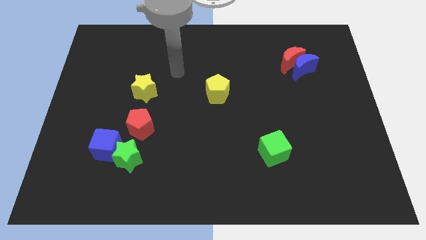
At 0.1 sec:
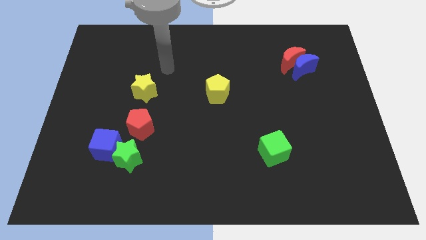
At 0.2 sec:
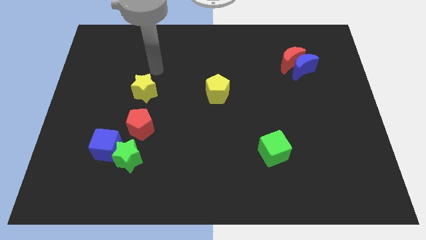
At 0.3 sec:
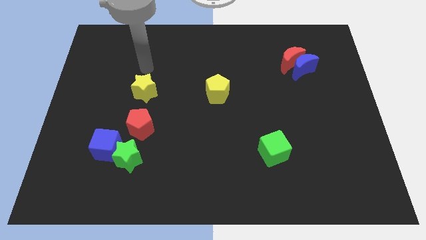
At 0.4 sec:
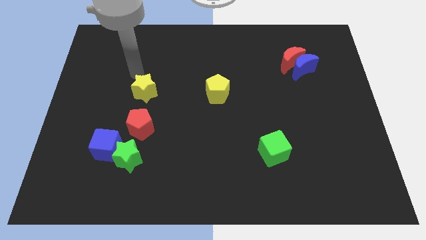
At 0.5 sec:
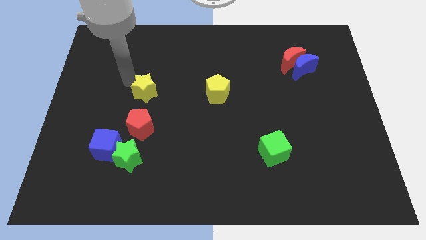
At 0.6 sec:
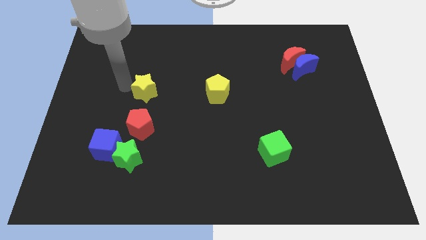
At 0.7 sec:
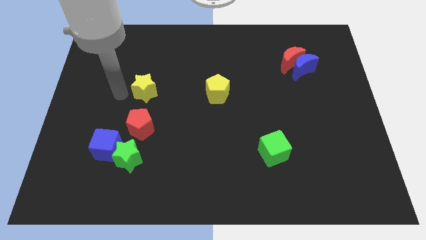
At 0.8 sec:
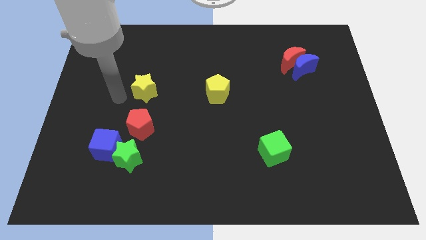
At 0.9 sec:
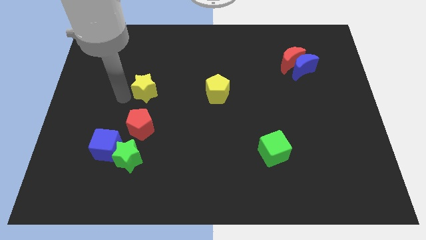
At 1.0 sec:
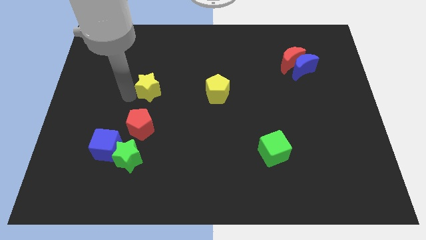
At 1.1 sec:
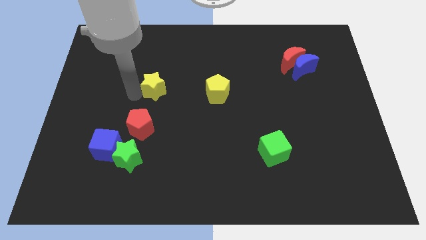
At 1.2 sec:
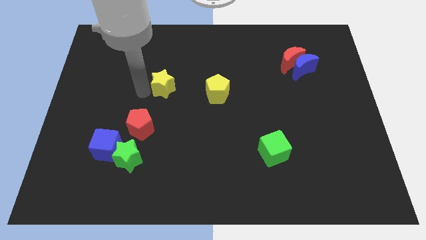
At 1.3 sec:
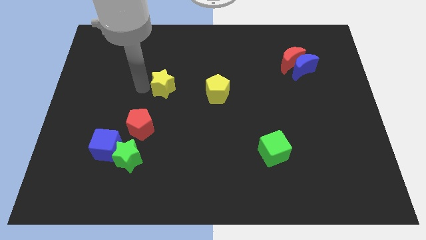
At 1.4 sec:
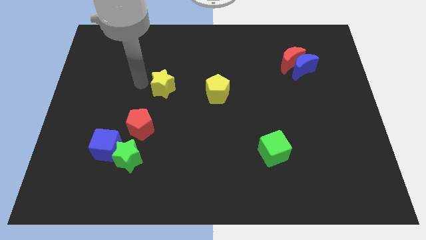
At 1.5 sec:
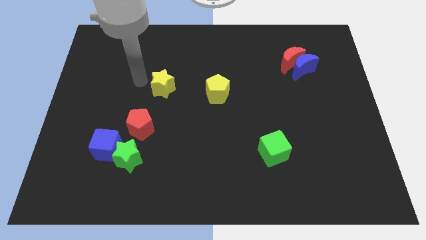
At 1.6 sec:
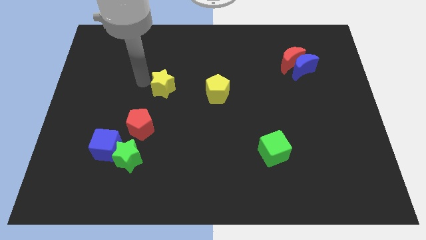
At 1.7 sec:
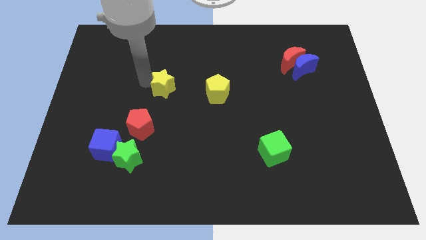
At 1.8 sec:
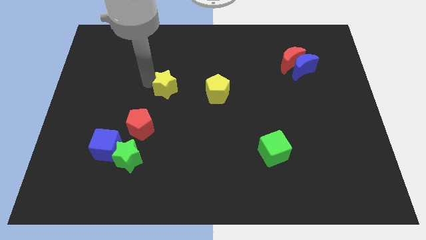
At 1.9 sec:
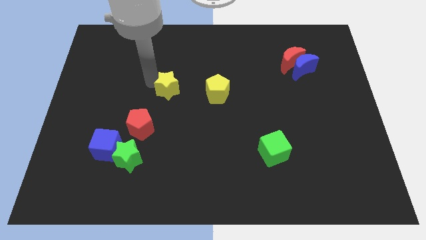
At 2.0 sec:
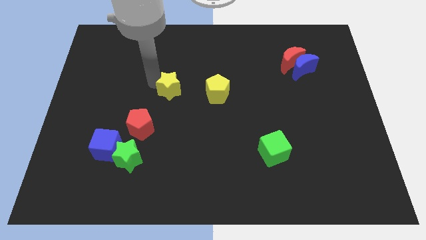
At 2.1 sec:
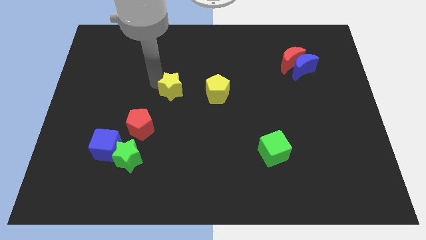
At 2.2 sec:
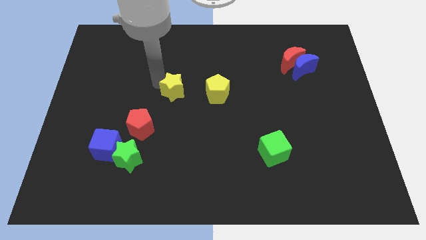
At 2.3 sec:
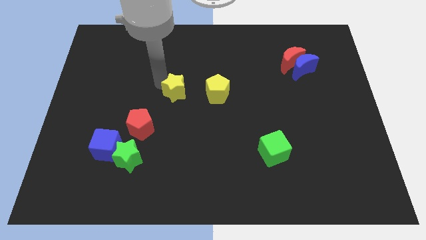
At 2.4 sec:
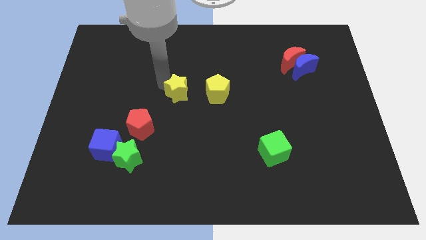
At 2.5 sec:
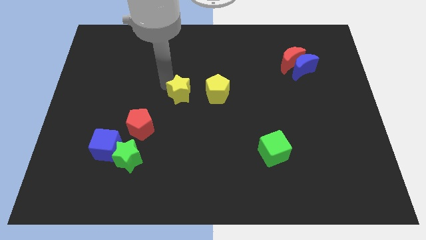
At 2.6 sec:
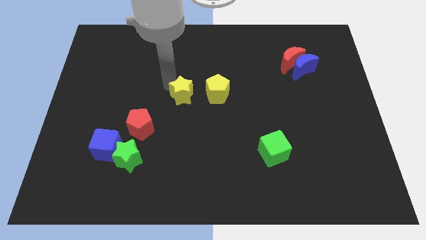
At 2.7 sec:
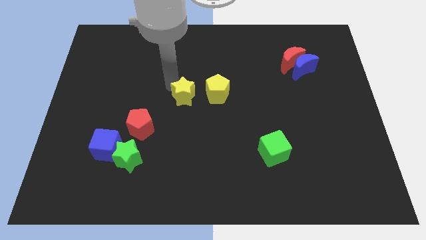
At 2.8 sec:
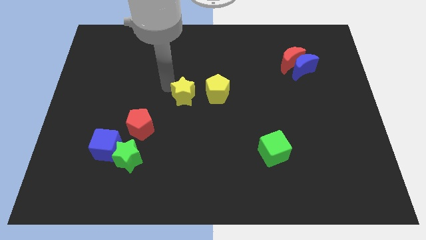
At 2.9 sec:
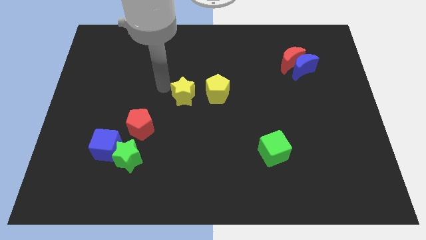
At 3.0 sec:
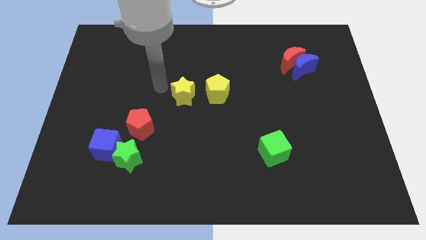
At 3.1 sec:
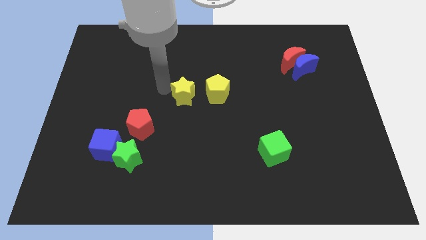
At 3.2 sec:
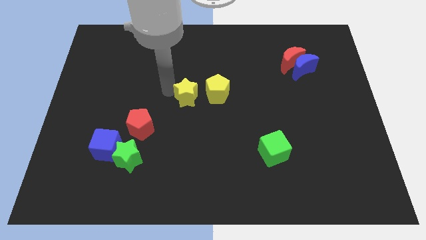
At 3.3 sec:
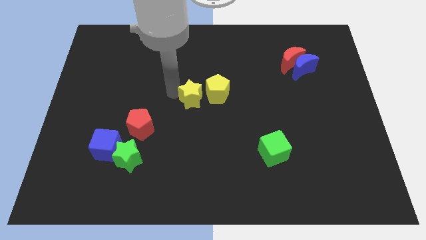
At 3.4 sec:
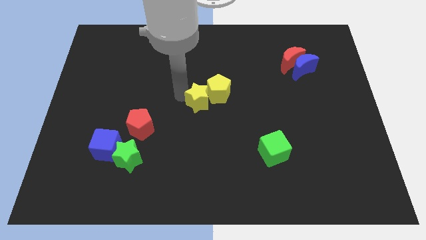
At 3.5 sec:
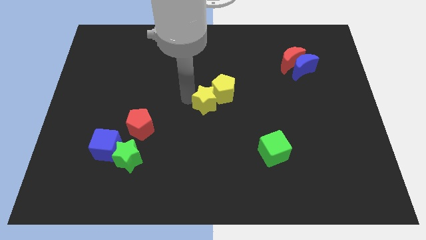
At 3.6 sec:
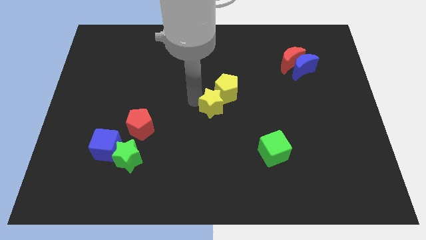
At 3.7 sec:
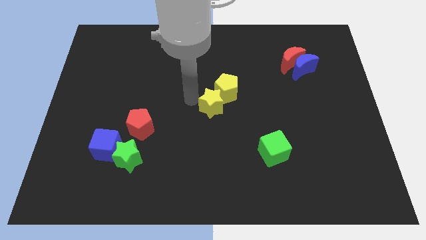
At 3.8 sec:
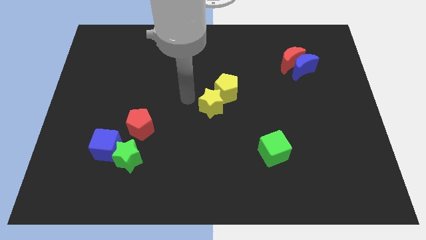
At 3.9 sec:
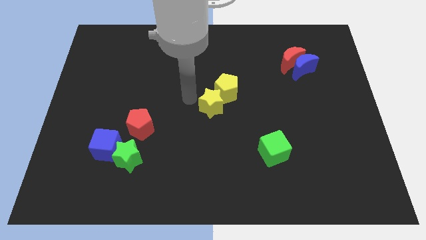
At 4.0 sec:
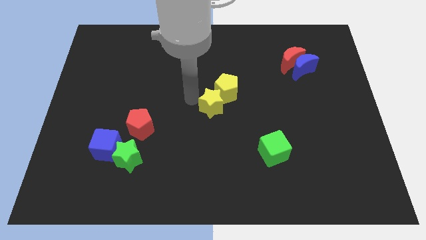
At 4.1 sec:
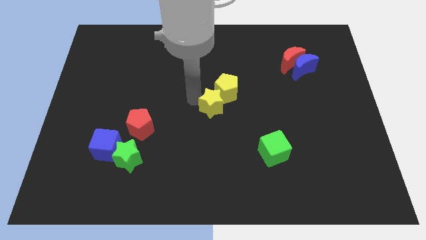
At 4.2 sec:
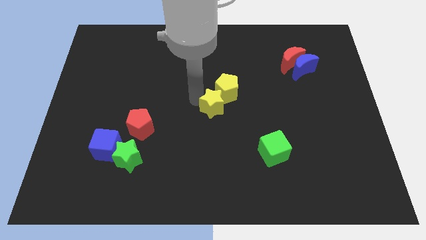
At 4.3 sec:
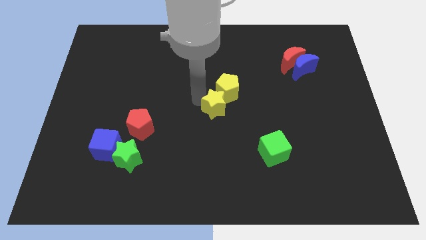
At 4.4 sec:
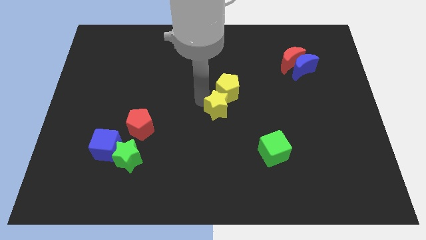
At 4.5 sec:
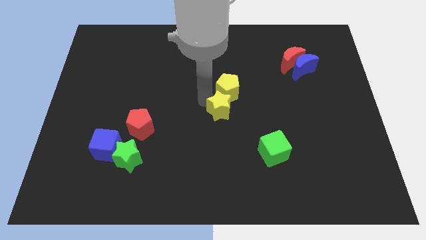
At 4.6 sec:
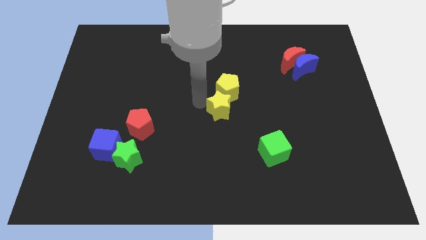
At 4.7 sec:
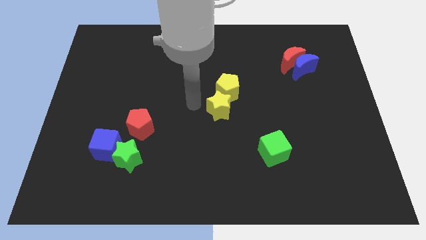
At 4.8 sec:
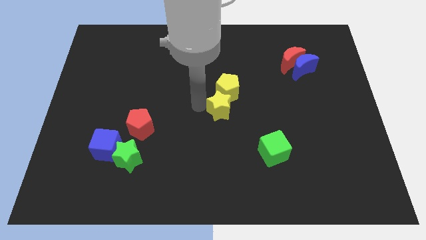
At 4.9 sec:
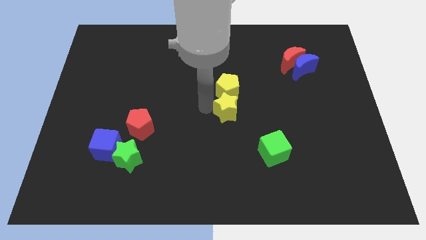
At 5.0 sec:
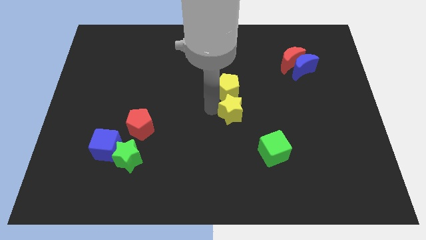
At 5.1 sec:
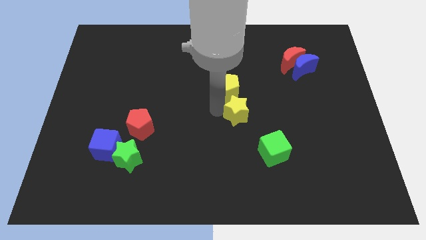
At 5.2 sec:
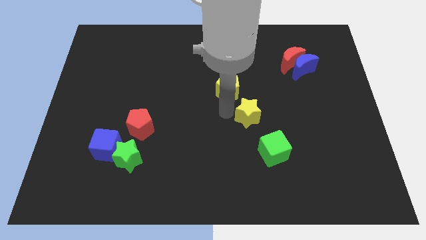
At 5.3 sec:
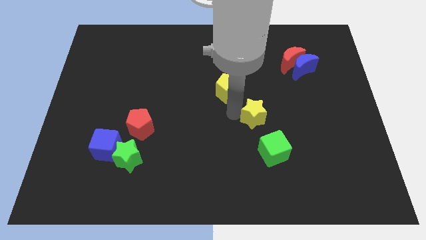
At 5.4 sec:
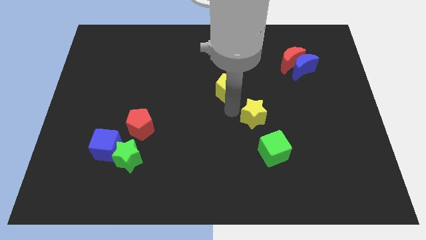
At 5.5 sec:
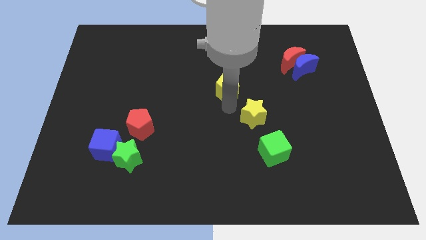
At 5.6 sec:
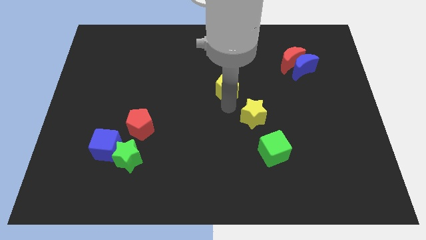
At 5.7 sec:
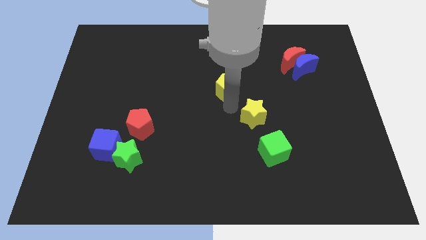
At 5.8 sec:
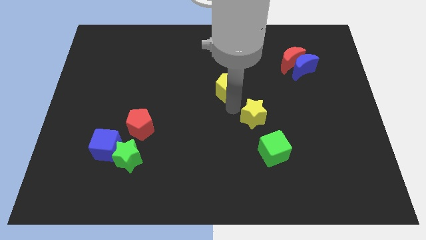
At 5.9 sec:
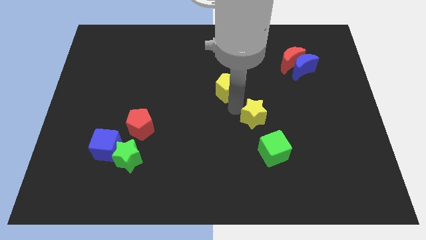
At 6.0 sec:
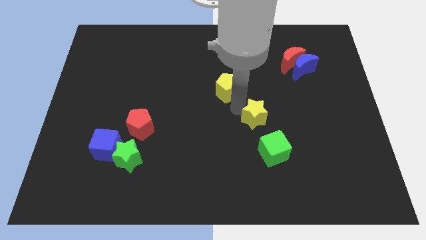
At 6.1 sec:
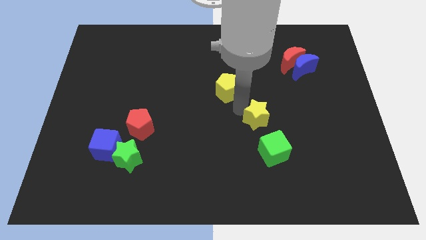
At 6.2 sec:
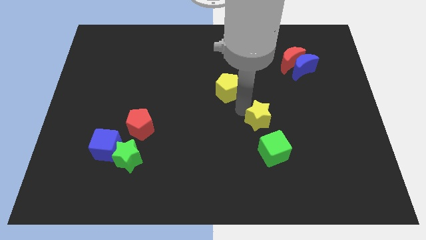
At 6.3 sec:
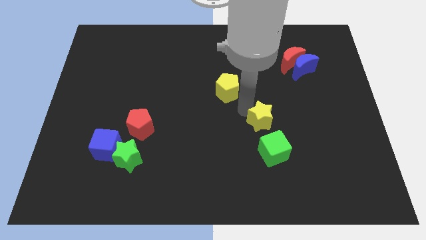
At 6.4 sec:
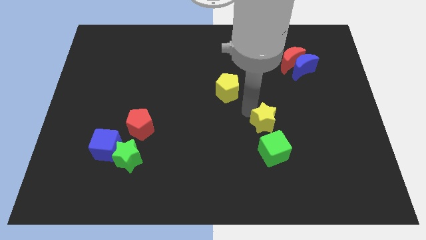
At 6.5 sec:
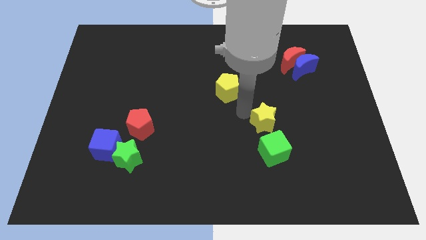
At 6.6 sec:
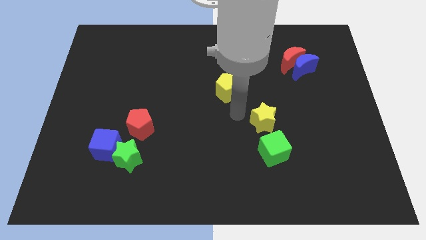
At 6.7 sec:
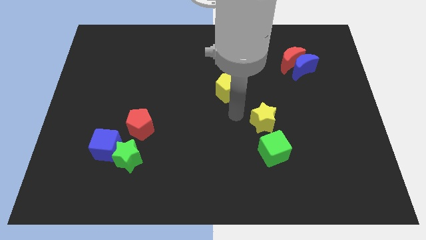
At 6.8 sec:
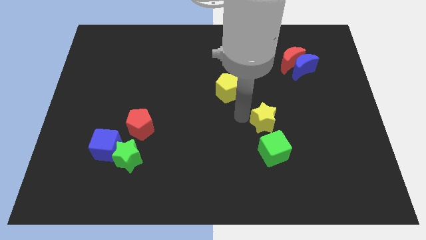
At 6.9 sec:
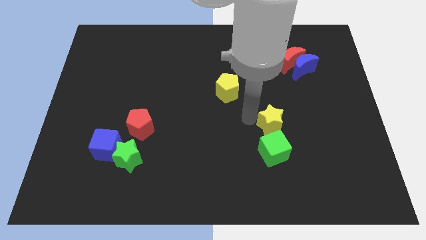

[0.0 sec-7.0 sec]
put the yellow star to the top right side of the green cube

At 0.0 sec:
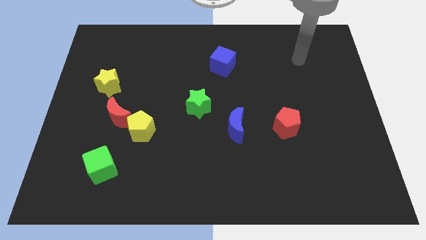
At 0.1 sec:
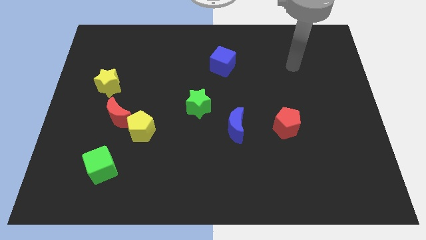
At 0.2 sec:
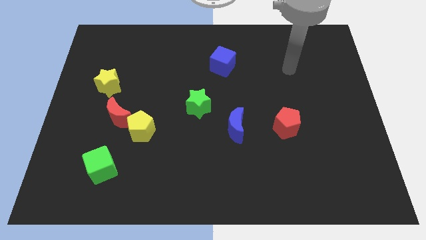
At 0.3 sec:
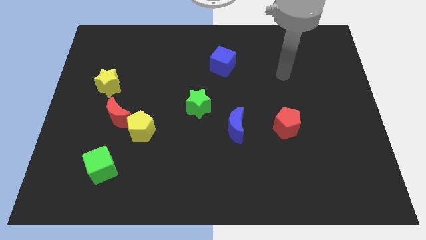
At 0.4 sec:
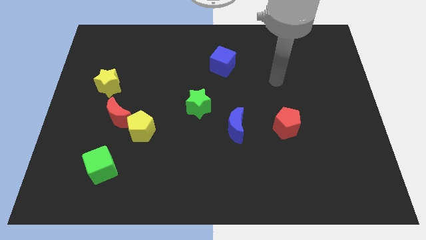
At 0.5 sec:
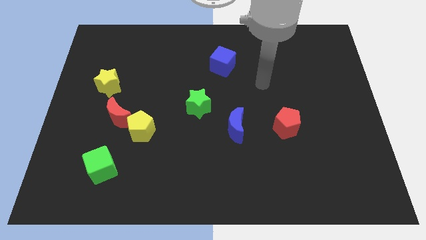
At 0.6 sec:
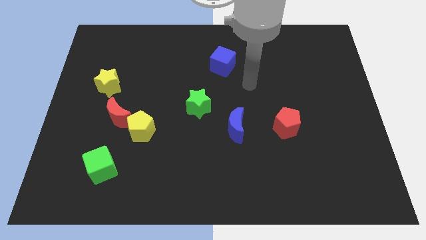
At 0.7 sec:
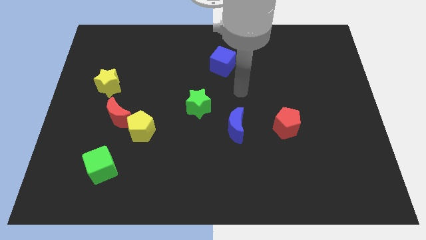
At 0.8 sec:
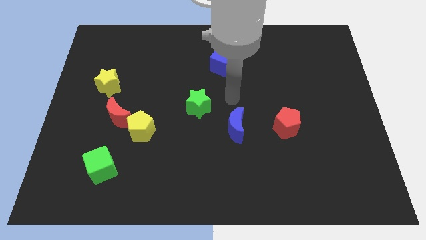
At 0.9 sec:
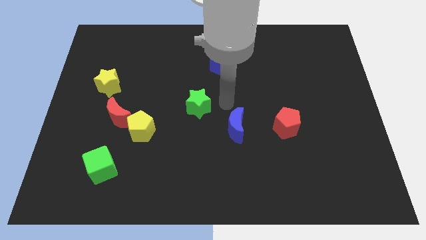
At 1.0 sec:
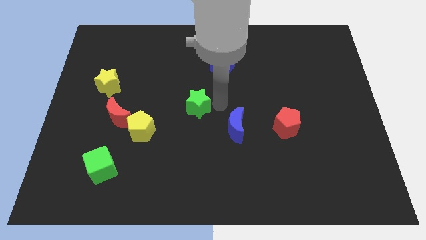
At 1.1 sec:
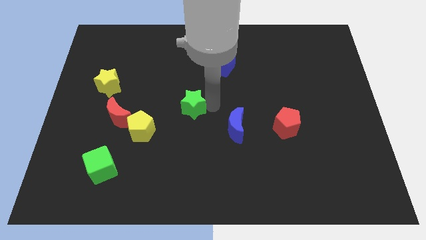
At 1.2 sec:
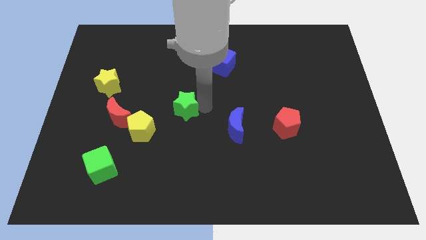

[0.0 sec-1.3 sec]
slide the green star diagonally up and to the right of the yellow pentagon
